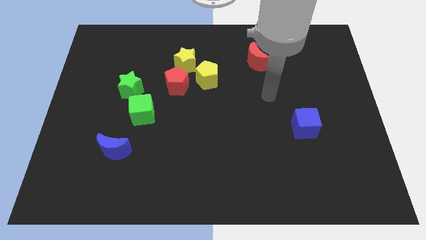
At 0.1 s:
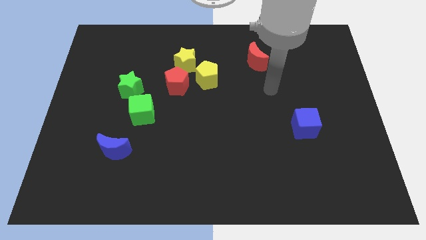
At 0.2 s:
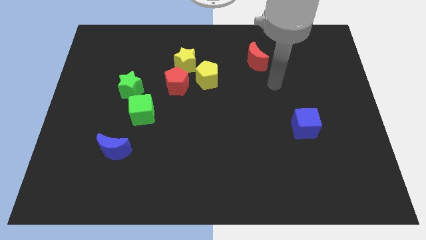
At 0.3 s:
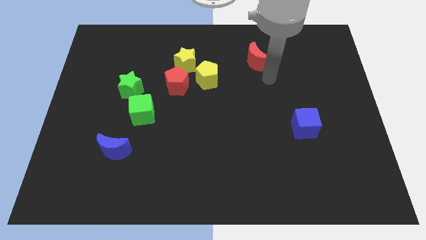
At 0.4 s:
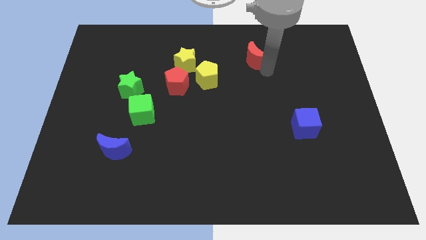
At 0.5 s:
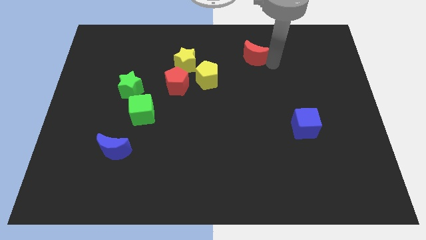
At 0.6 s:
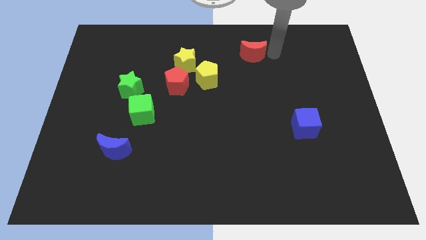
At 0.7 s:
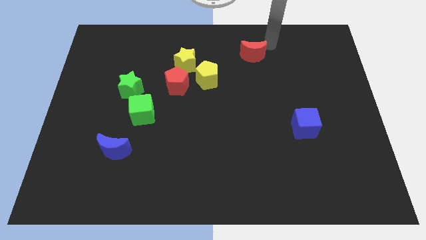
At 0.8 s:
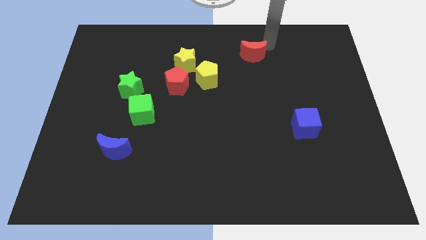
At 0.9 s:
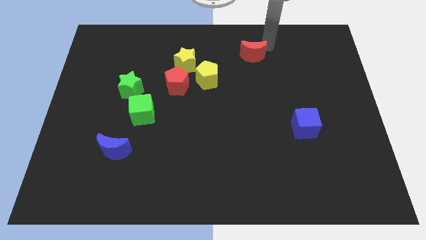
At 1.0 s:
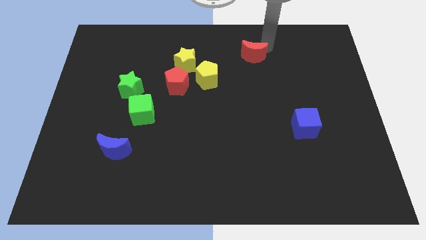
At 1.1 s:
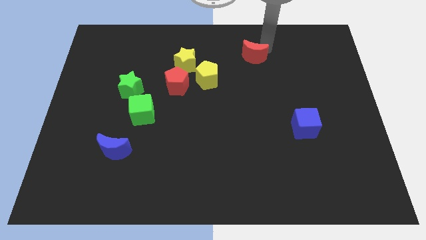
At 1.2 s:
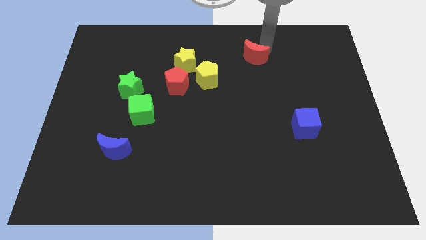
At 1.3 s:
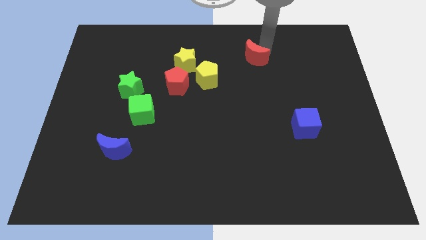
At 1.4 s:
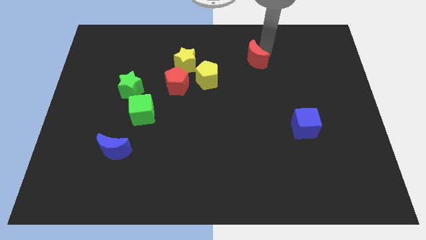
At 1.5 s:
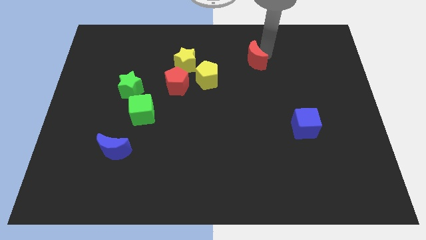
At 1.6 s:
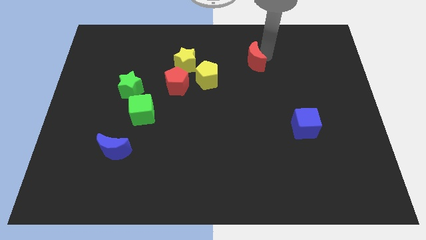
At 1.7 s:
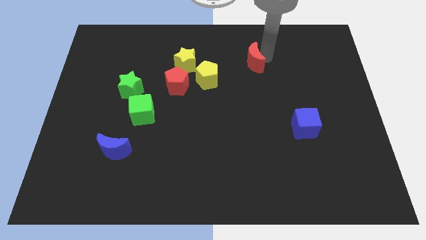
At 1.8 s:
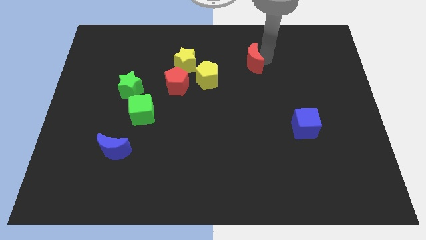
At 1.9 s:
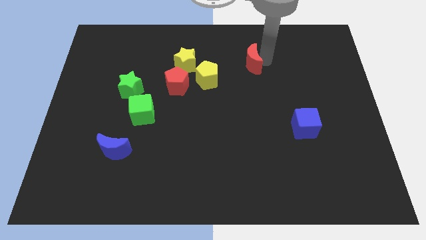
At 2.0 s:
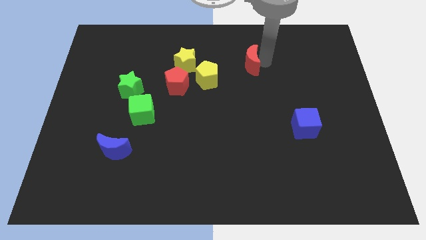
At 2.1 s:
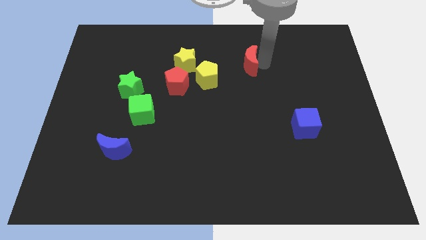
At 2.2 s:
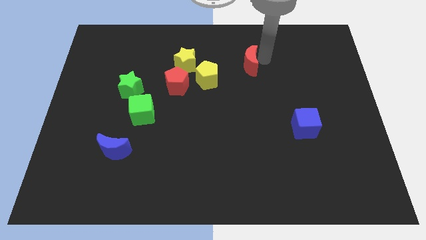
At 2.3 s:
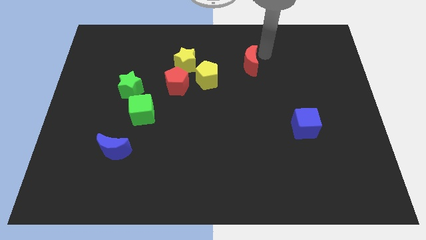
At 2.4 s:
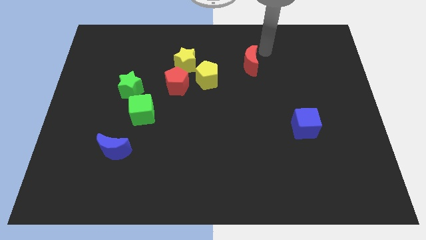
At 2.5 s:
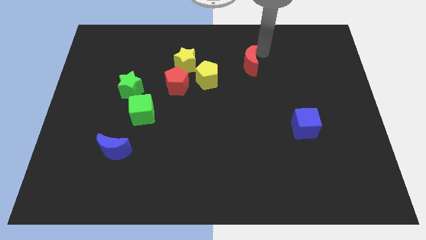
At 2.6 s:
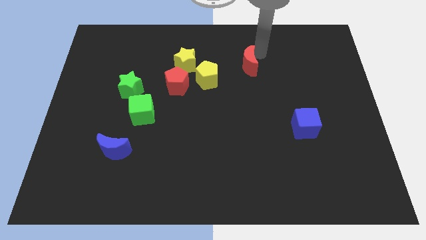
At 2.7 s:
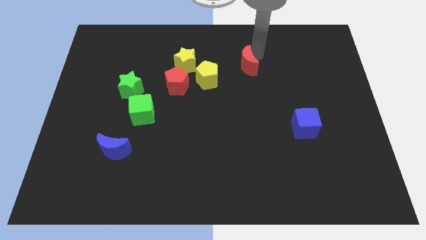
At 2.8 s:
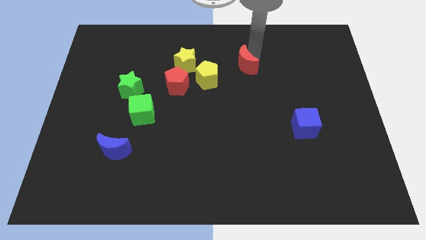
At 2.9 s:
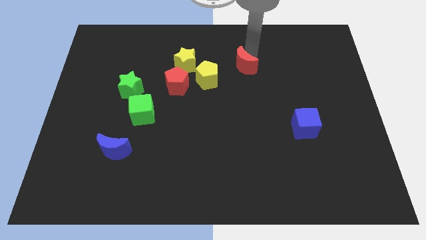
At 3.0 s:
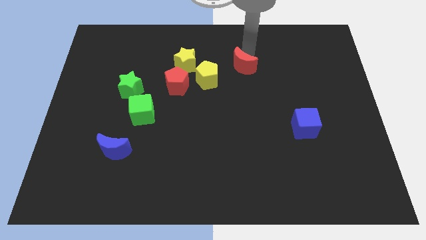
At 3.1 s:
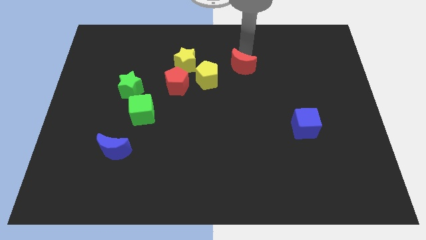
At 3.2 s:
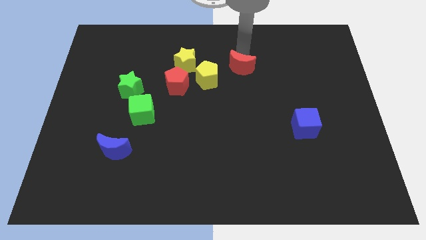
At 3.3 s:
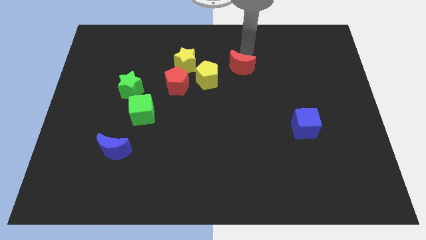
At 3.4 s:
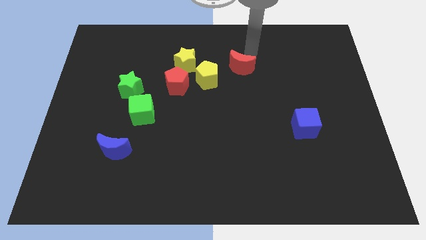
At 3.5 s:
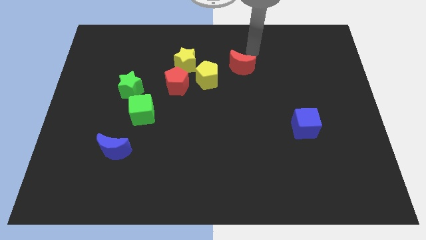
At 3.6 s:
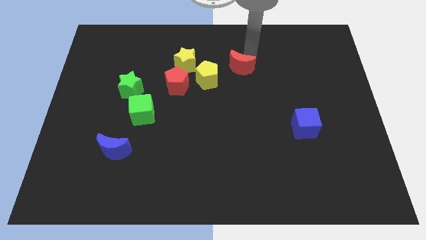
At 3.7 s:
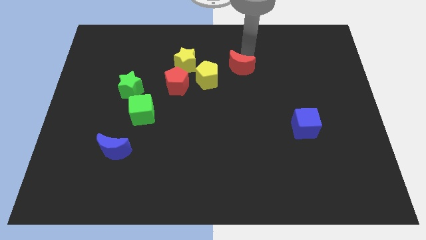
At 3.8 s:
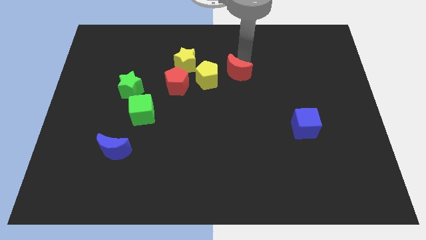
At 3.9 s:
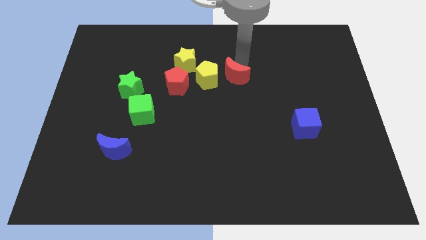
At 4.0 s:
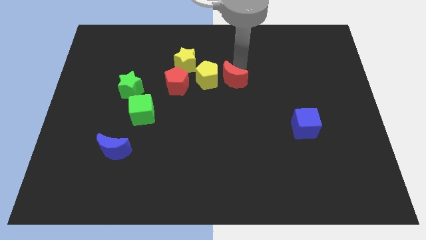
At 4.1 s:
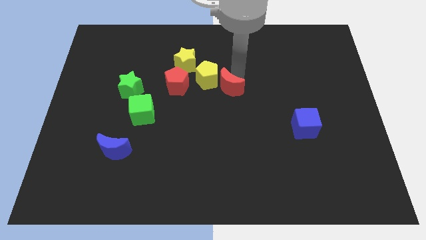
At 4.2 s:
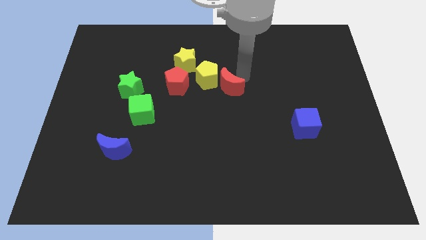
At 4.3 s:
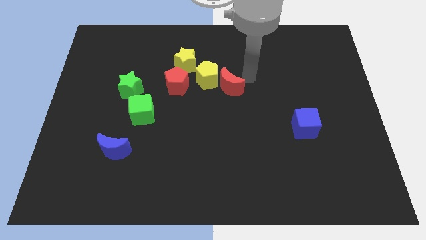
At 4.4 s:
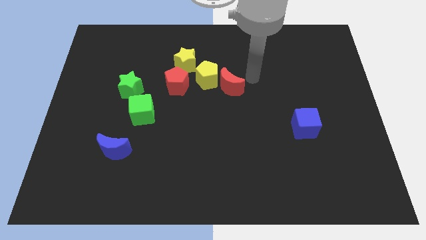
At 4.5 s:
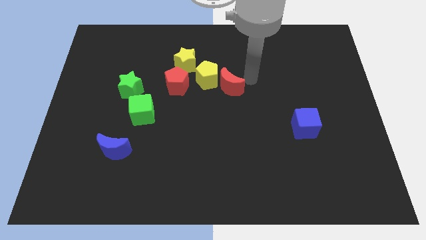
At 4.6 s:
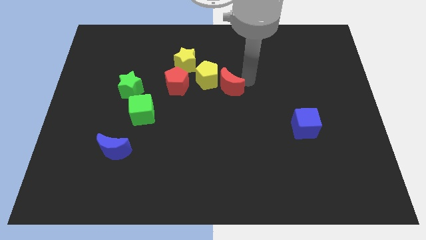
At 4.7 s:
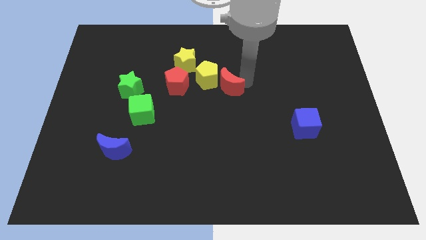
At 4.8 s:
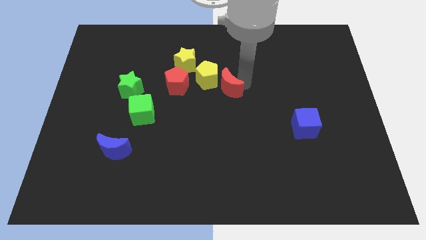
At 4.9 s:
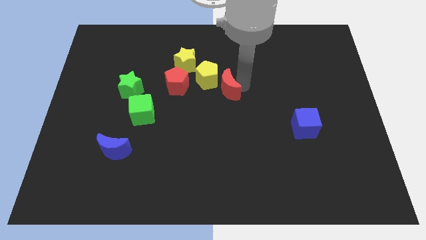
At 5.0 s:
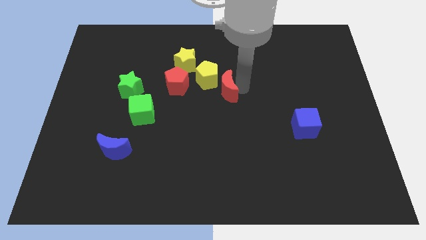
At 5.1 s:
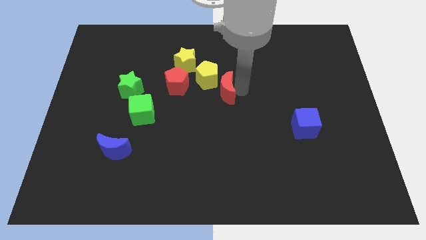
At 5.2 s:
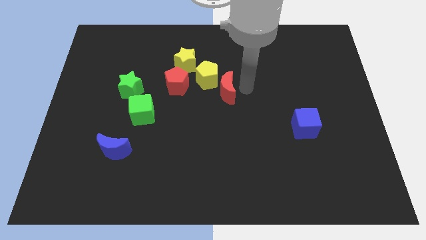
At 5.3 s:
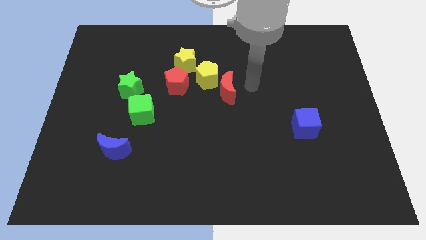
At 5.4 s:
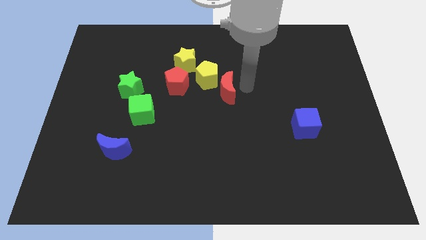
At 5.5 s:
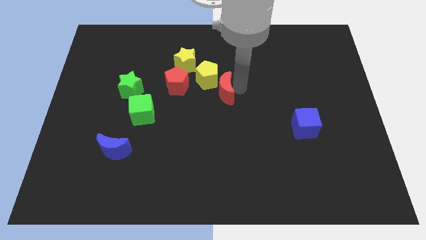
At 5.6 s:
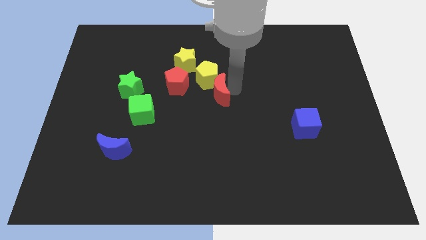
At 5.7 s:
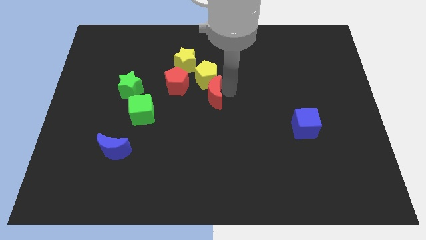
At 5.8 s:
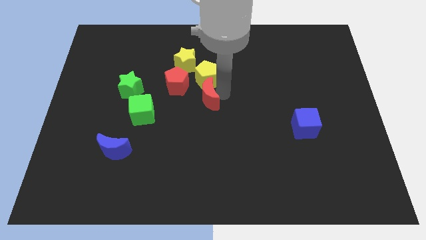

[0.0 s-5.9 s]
push the red moon to the bottom left side of the yellow pentagon

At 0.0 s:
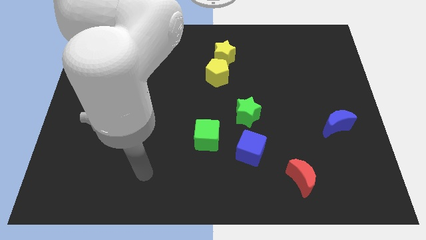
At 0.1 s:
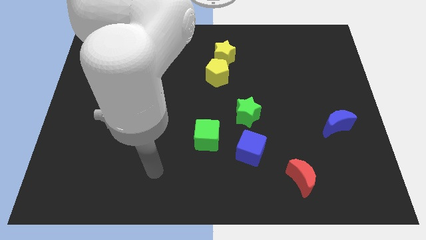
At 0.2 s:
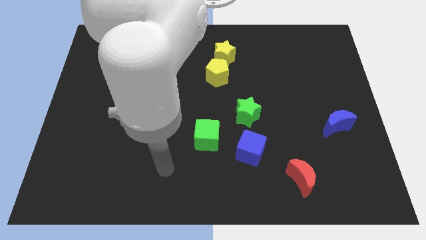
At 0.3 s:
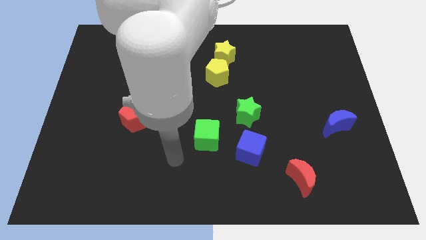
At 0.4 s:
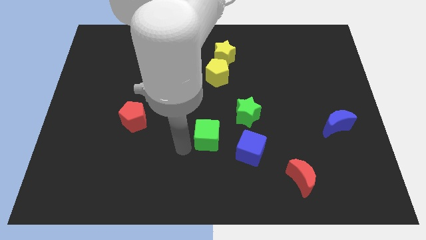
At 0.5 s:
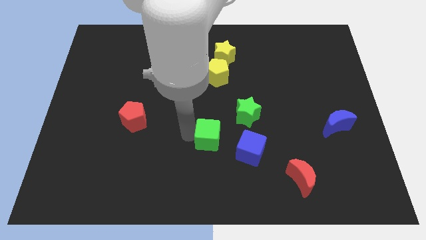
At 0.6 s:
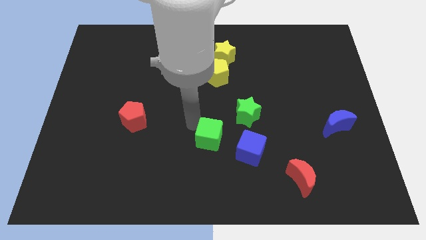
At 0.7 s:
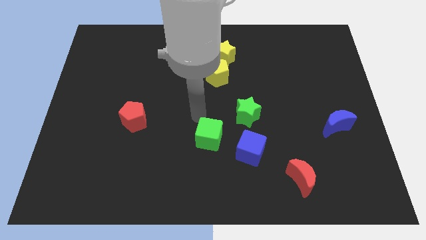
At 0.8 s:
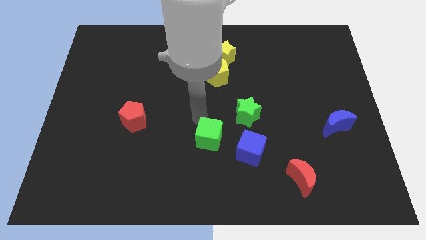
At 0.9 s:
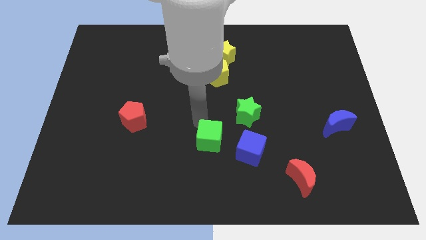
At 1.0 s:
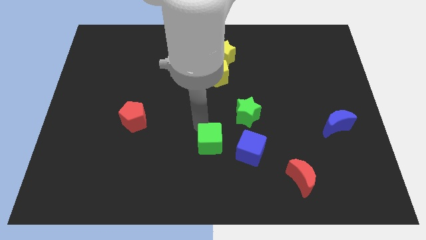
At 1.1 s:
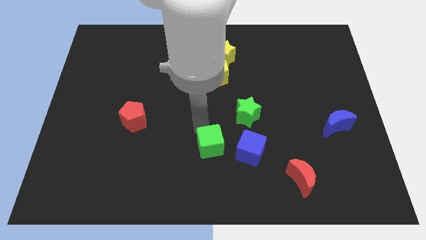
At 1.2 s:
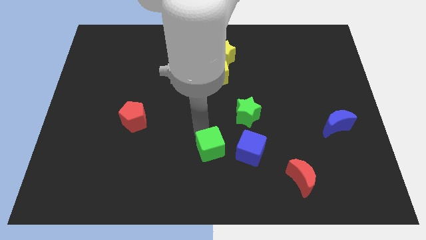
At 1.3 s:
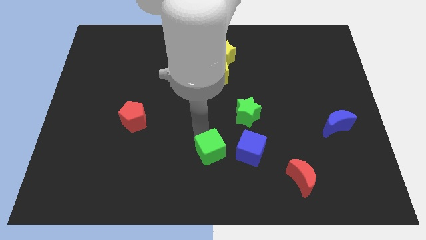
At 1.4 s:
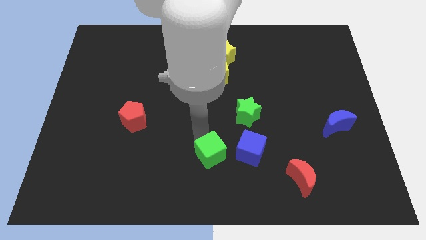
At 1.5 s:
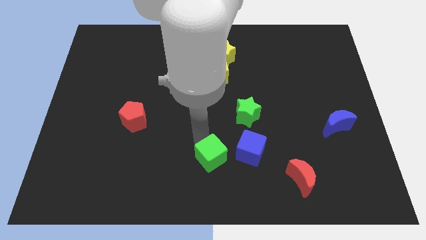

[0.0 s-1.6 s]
put the green cube diagonally down and to the left of the blue cube
